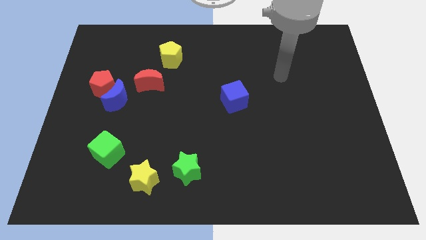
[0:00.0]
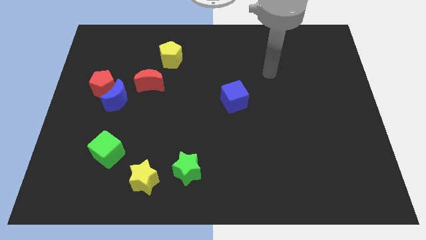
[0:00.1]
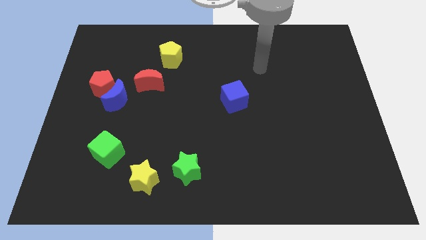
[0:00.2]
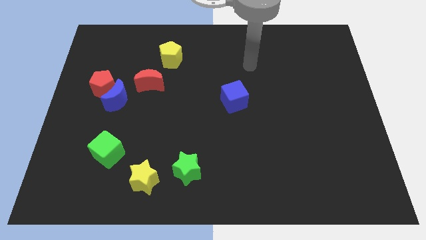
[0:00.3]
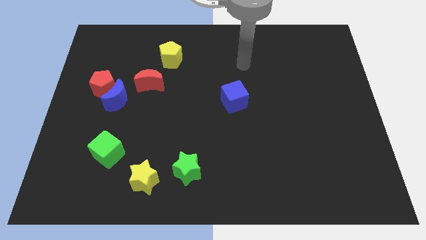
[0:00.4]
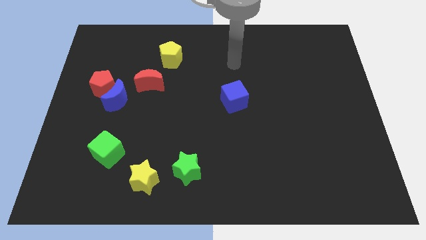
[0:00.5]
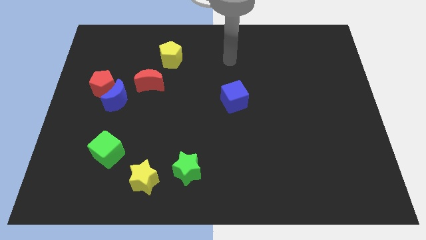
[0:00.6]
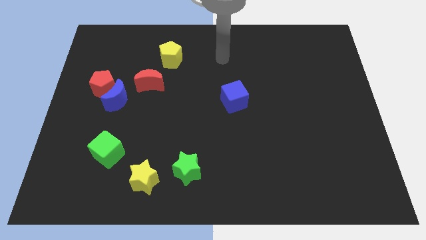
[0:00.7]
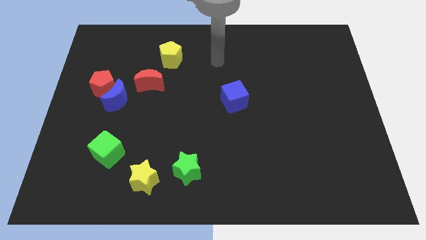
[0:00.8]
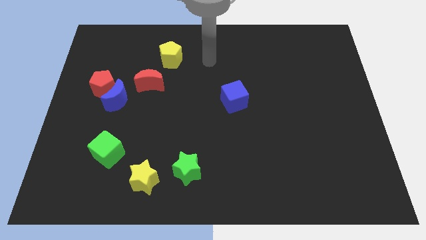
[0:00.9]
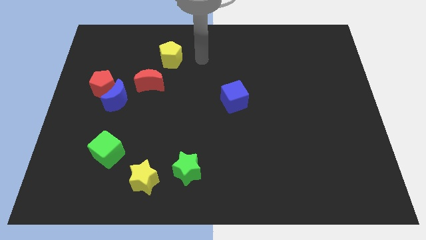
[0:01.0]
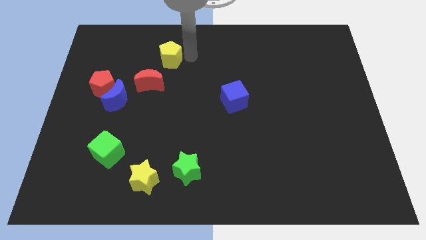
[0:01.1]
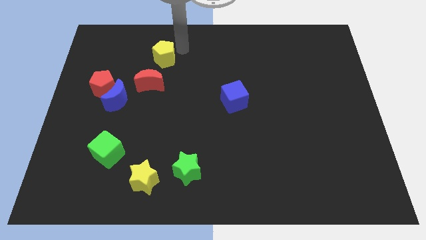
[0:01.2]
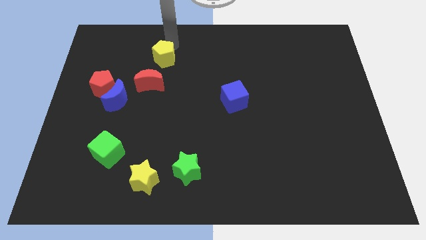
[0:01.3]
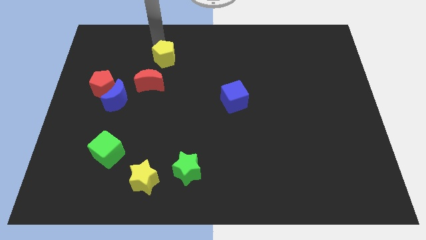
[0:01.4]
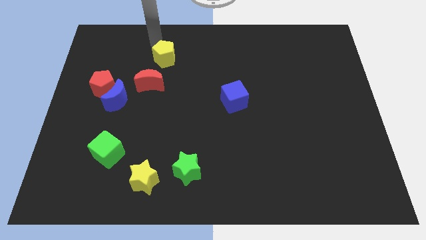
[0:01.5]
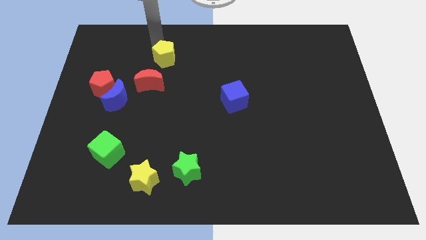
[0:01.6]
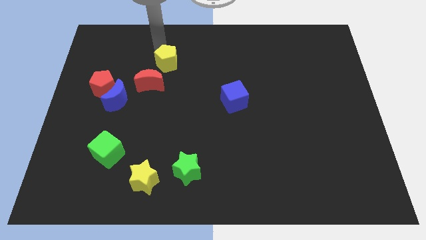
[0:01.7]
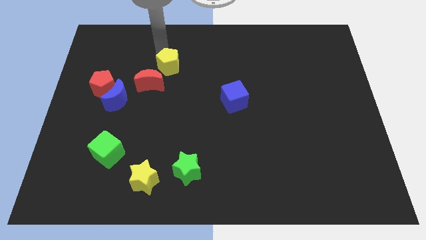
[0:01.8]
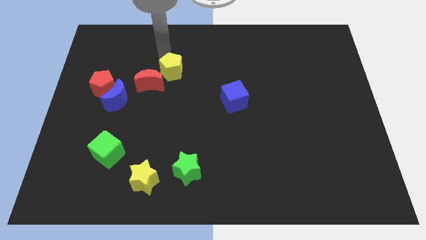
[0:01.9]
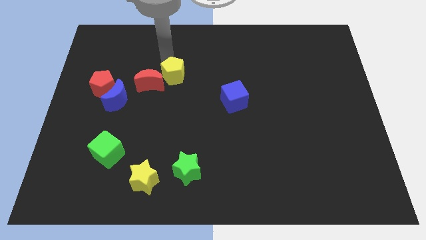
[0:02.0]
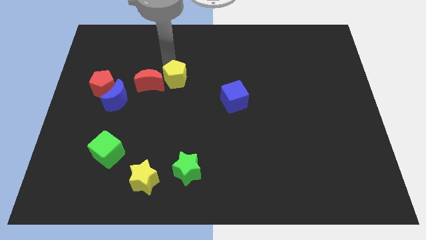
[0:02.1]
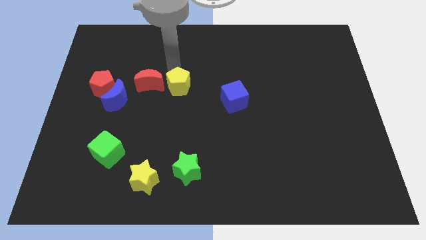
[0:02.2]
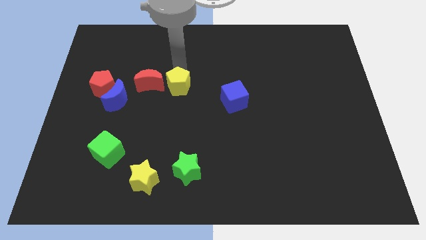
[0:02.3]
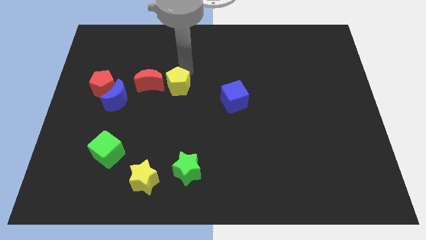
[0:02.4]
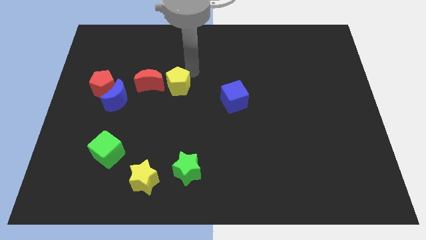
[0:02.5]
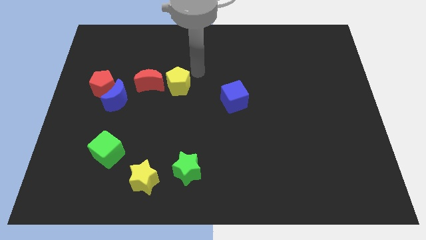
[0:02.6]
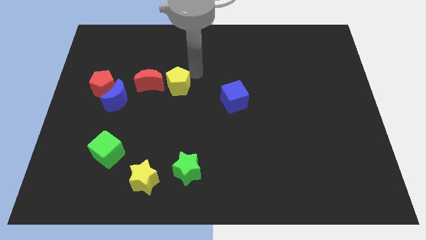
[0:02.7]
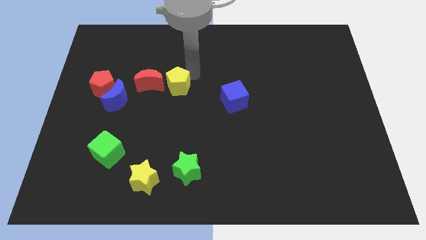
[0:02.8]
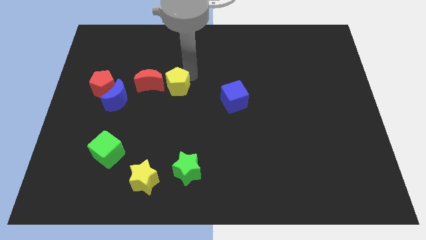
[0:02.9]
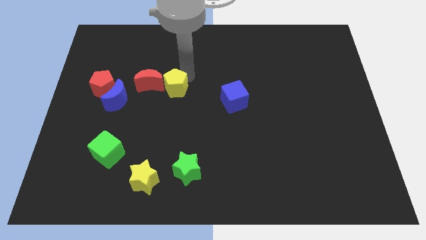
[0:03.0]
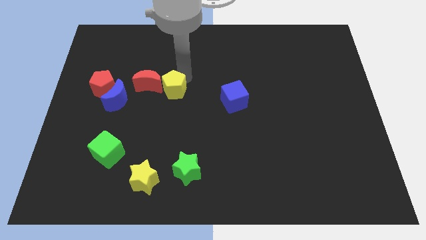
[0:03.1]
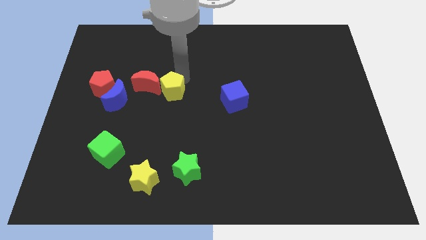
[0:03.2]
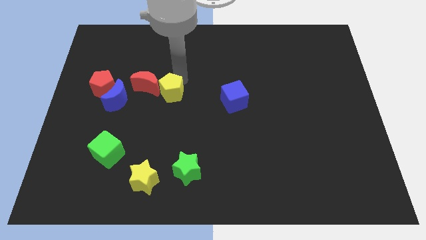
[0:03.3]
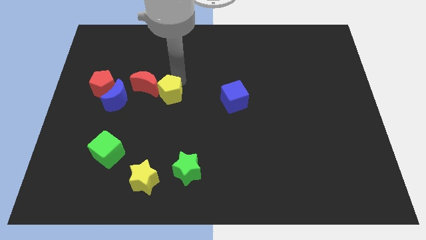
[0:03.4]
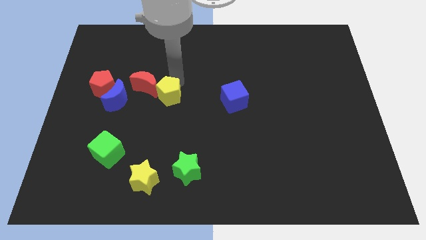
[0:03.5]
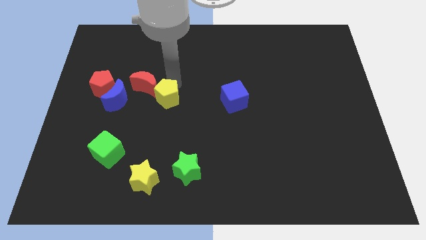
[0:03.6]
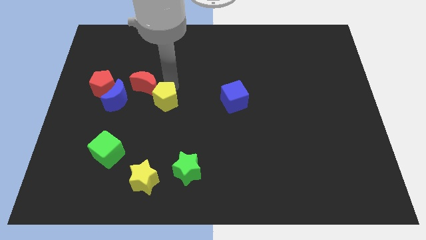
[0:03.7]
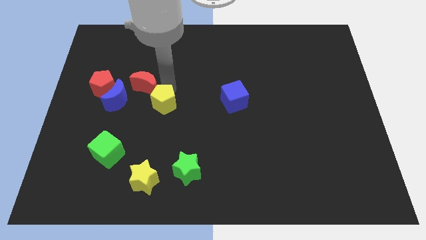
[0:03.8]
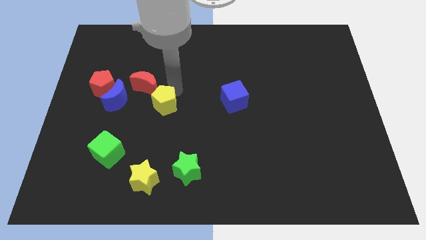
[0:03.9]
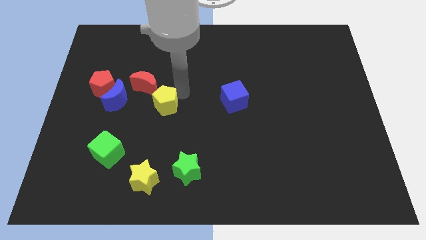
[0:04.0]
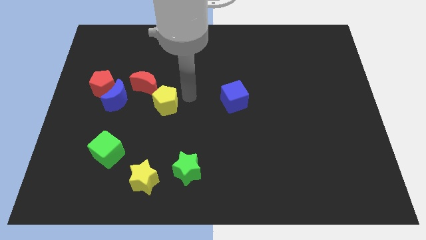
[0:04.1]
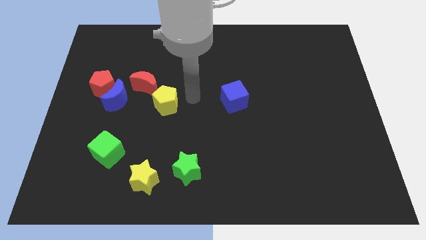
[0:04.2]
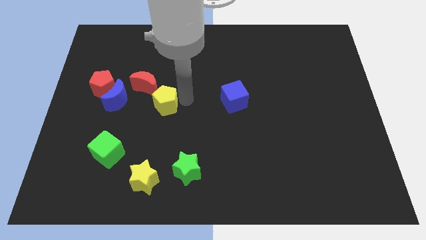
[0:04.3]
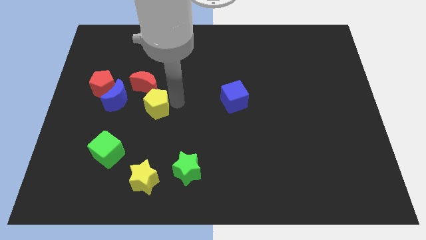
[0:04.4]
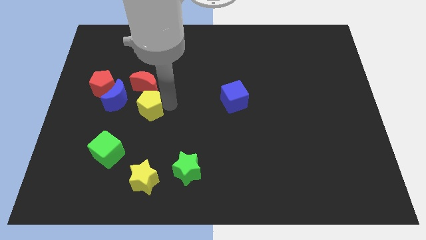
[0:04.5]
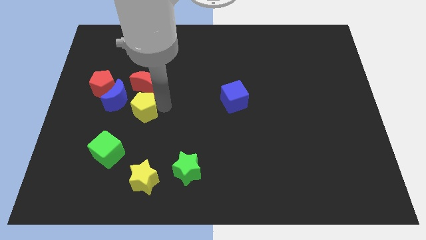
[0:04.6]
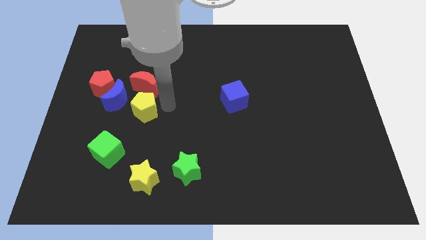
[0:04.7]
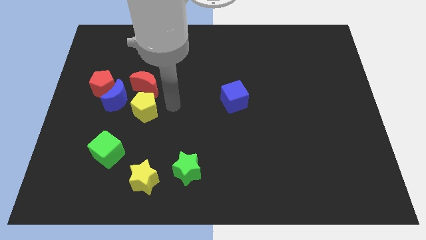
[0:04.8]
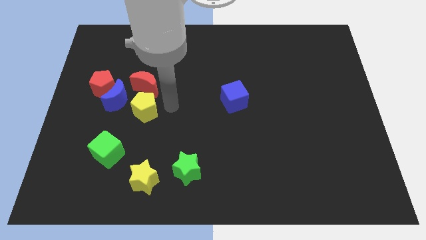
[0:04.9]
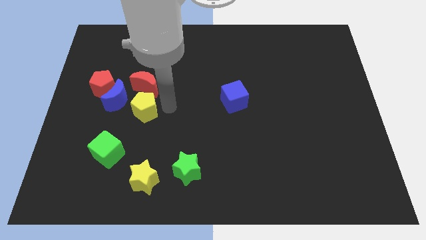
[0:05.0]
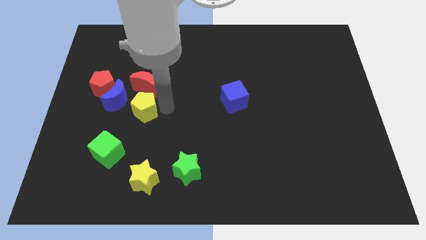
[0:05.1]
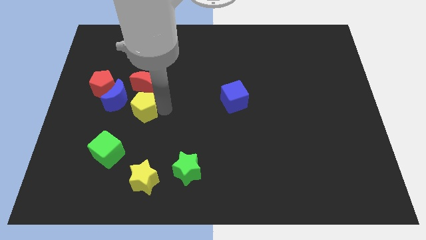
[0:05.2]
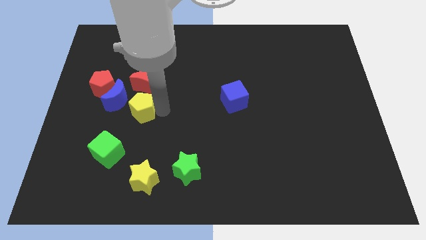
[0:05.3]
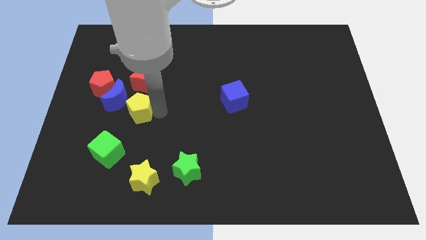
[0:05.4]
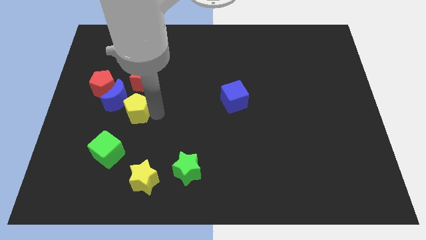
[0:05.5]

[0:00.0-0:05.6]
slide the yellow pentagon to the top side of the green cube

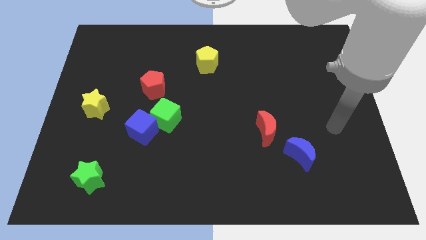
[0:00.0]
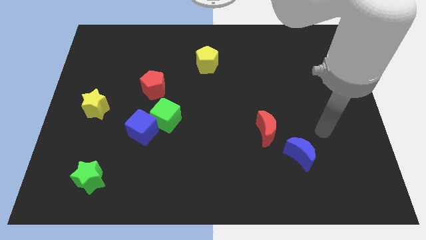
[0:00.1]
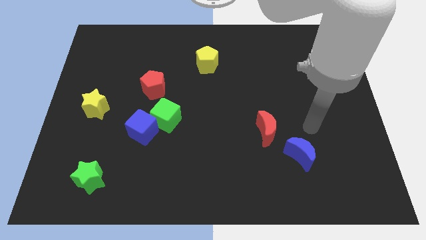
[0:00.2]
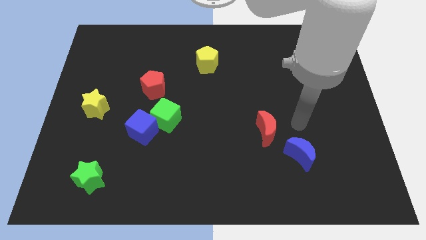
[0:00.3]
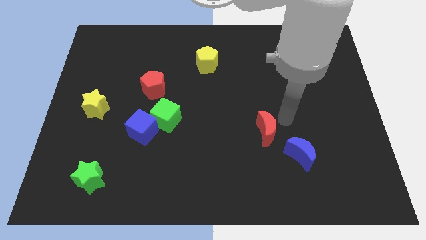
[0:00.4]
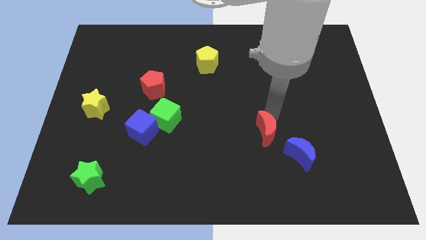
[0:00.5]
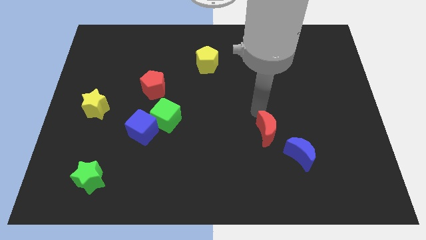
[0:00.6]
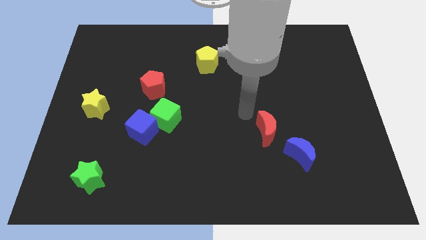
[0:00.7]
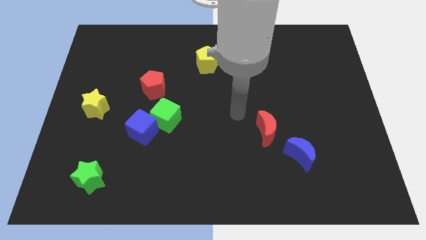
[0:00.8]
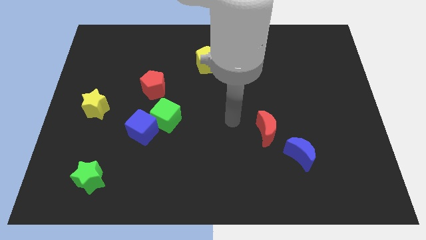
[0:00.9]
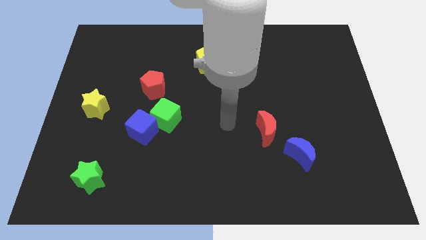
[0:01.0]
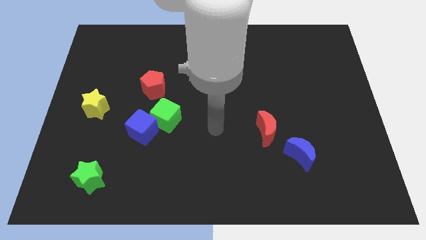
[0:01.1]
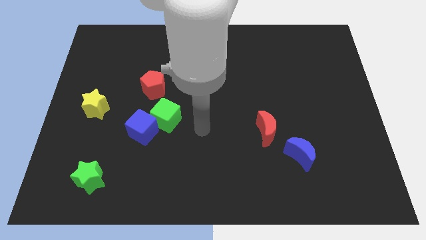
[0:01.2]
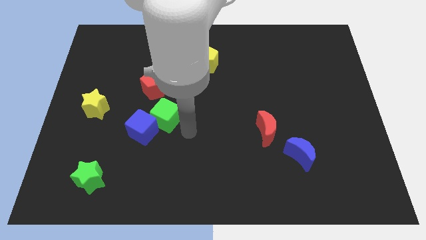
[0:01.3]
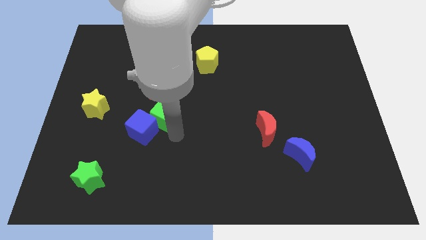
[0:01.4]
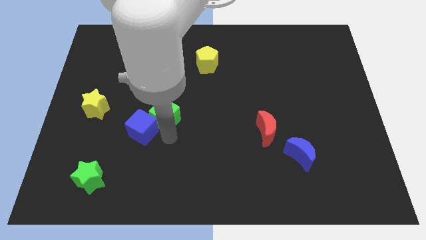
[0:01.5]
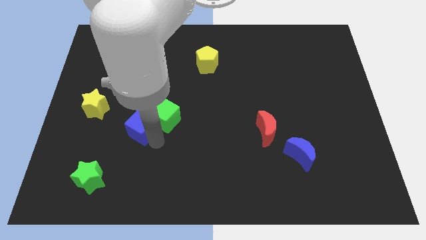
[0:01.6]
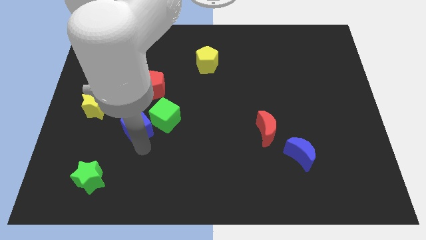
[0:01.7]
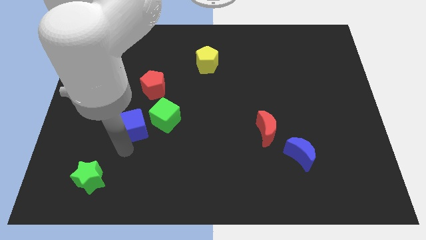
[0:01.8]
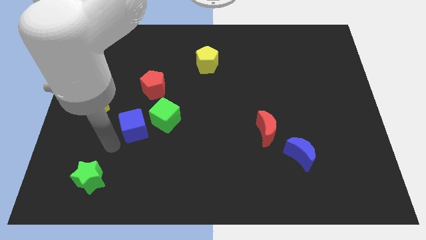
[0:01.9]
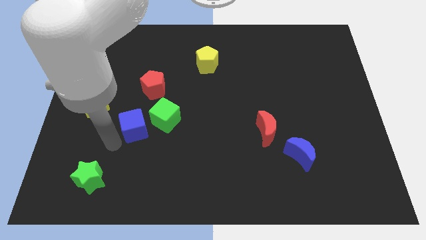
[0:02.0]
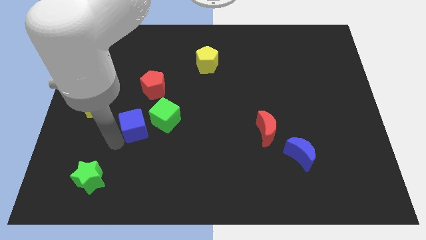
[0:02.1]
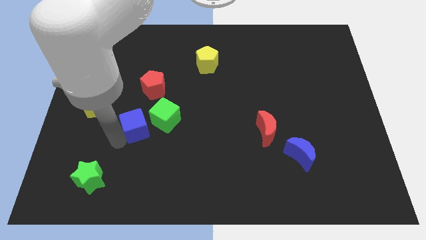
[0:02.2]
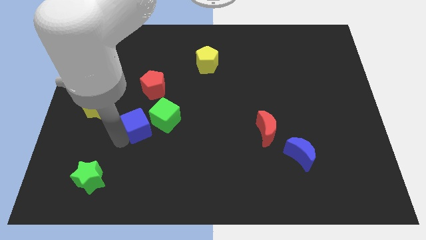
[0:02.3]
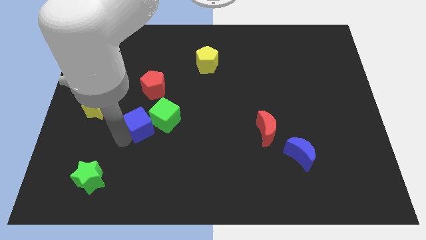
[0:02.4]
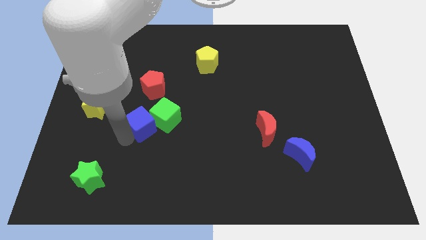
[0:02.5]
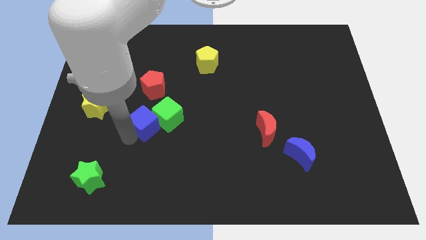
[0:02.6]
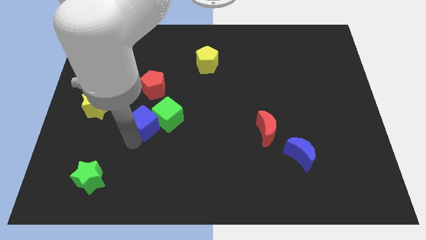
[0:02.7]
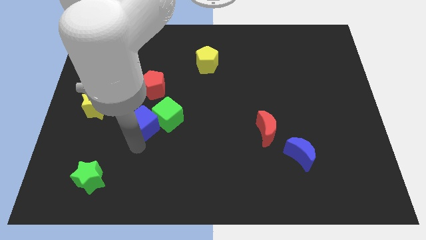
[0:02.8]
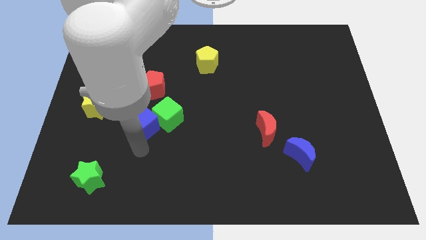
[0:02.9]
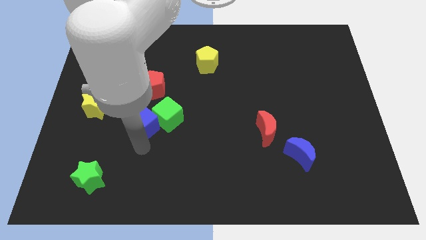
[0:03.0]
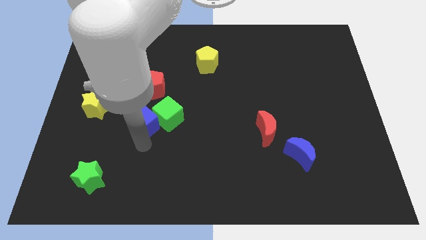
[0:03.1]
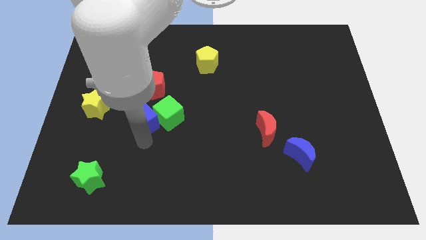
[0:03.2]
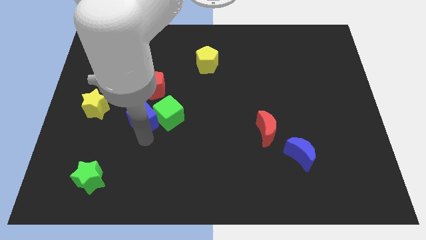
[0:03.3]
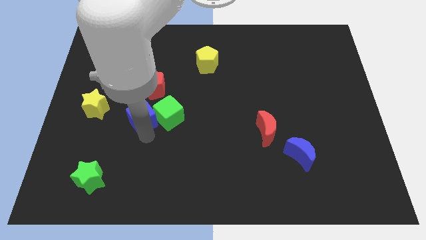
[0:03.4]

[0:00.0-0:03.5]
move the blue cube diagonally up and to the left of the green cube
